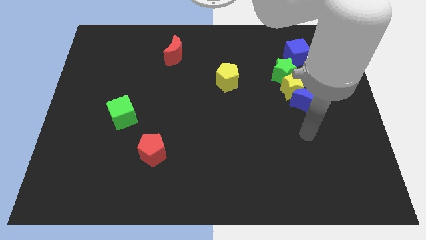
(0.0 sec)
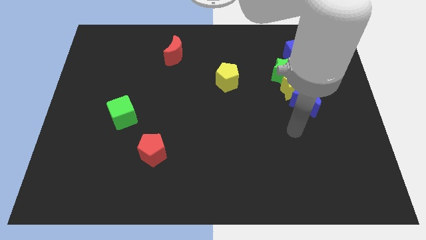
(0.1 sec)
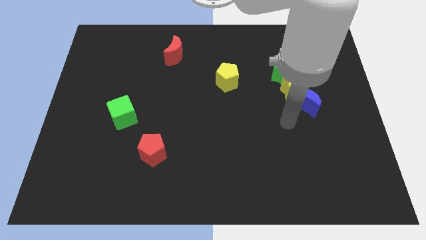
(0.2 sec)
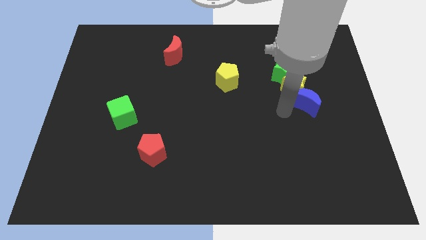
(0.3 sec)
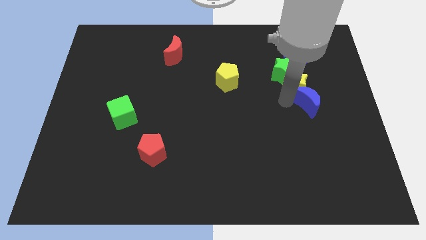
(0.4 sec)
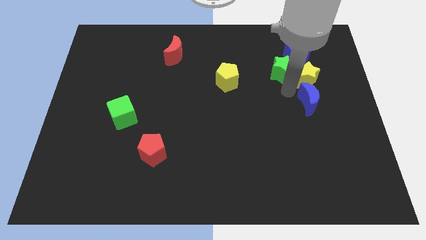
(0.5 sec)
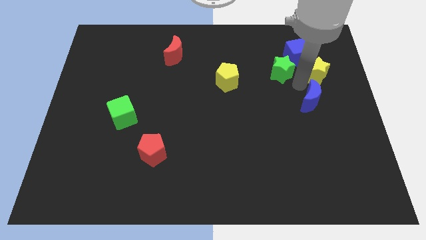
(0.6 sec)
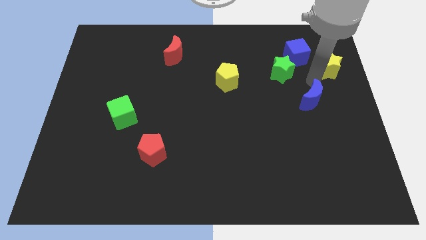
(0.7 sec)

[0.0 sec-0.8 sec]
move the blue moon away from the yellow star

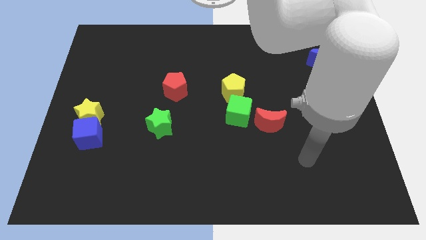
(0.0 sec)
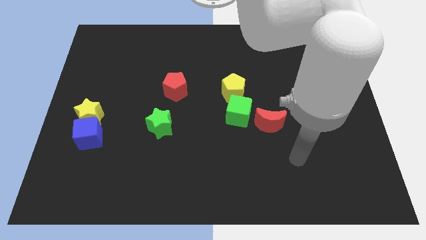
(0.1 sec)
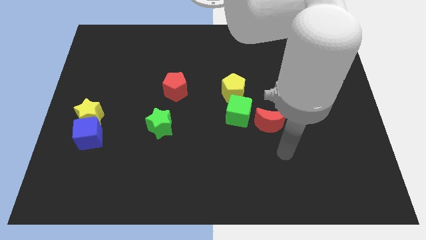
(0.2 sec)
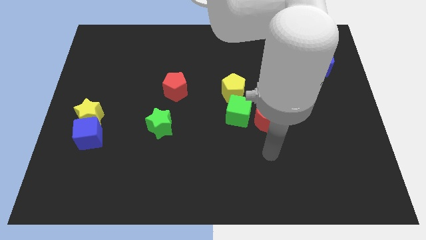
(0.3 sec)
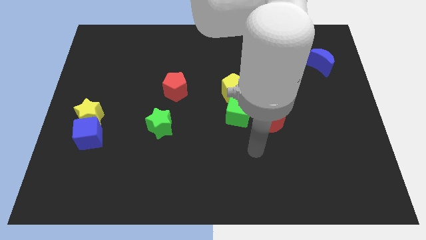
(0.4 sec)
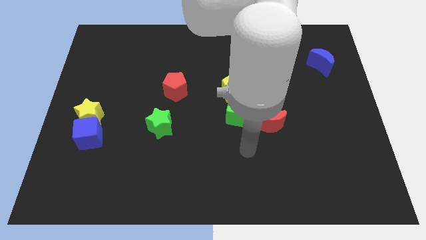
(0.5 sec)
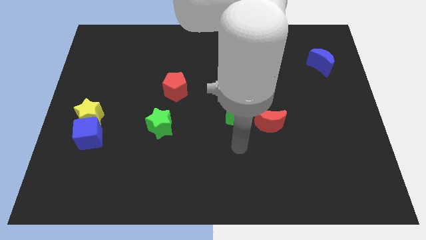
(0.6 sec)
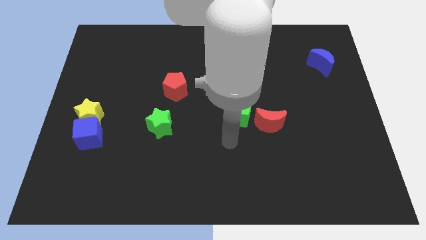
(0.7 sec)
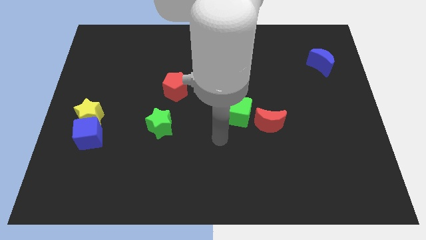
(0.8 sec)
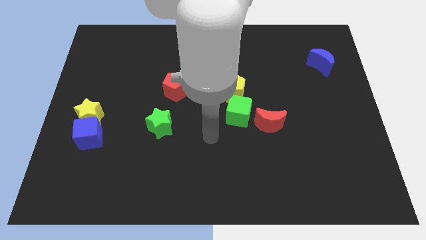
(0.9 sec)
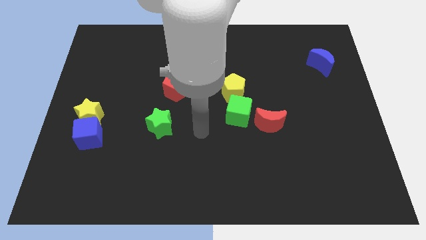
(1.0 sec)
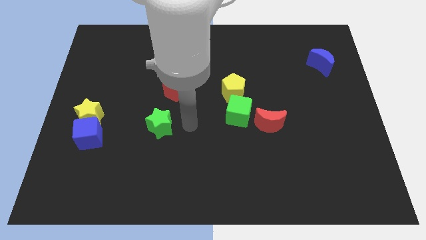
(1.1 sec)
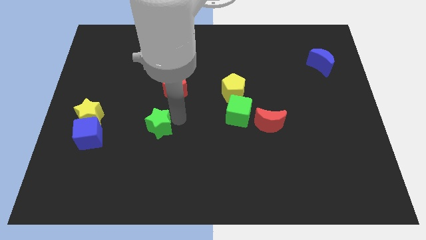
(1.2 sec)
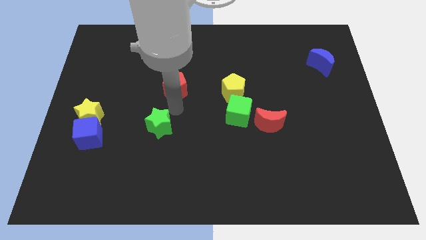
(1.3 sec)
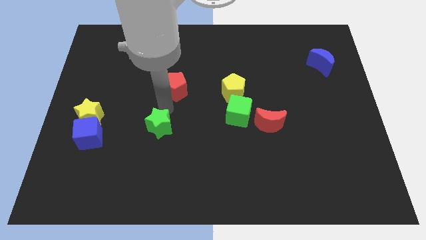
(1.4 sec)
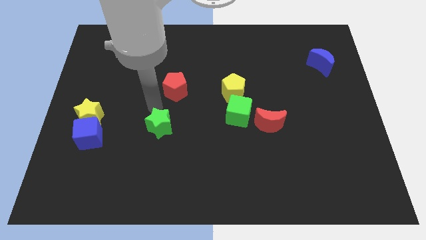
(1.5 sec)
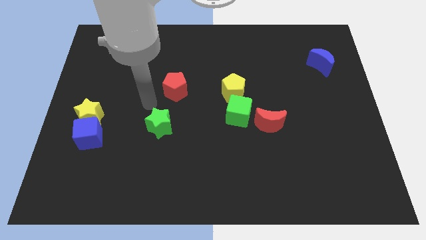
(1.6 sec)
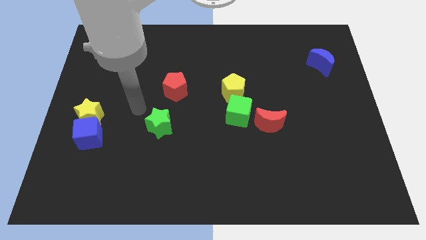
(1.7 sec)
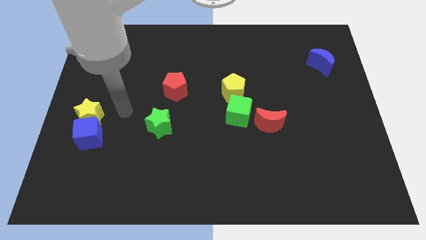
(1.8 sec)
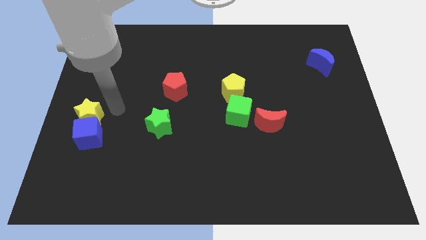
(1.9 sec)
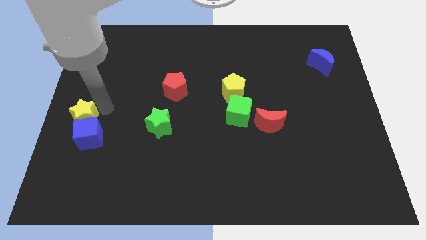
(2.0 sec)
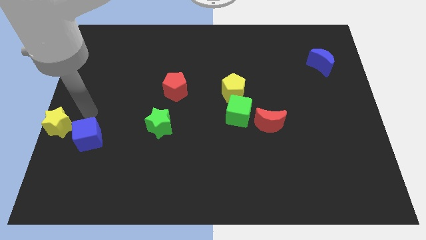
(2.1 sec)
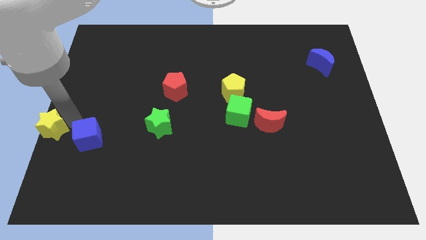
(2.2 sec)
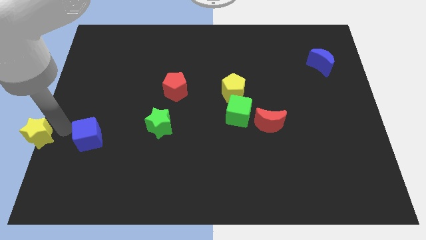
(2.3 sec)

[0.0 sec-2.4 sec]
move the blue cube away from the yellow star

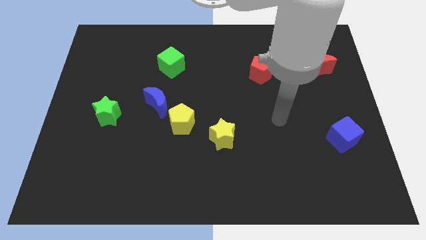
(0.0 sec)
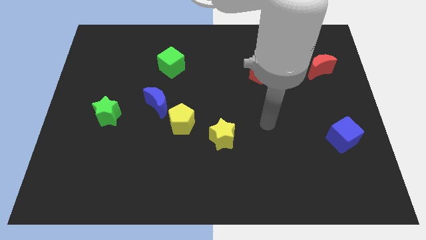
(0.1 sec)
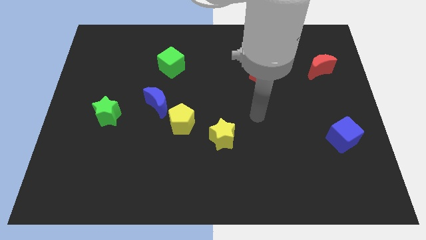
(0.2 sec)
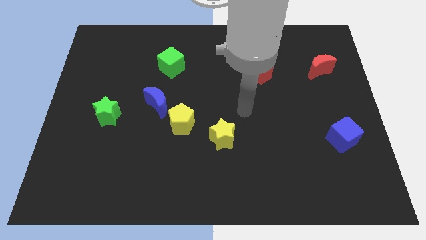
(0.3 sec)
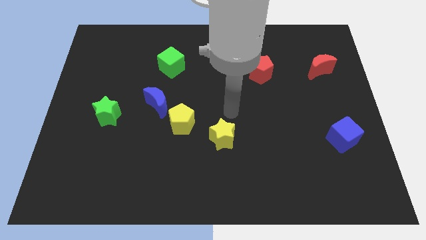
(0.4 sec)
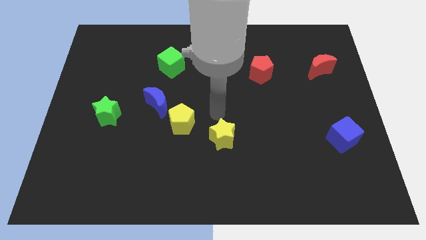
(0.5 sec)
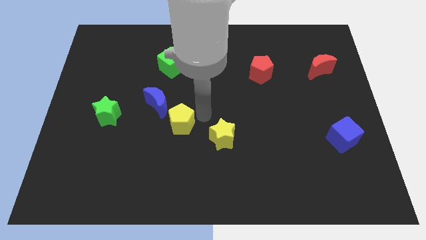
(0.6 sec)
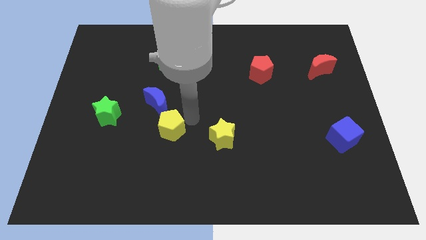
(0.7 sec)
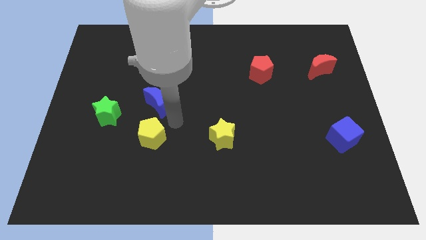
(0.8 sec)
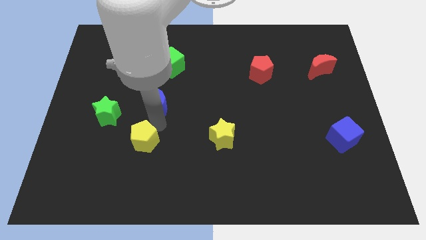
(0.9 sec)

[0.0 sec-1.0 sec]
separate the blue moon from the yellow pentagon

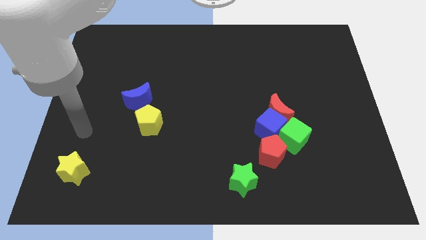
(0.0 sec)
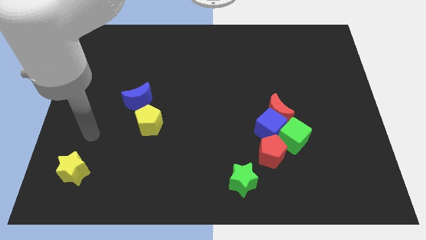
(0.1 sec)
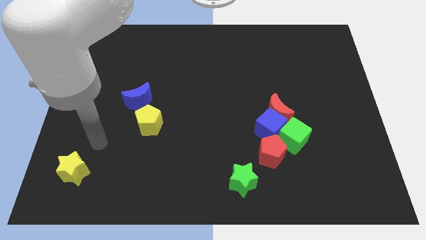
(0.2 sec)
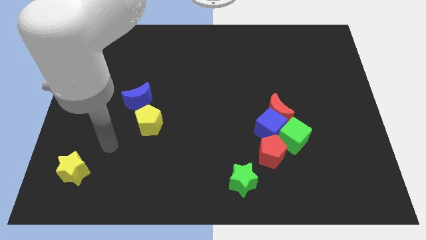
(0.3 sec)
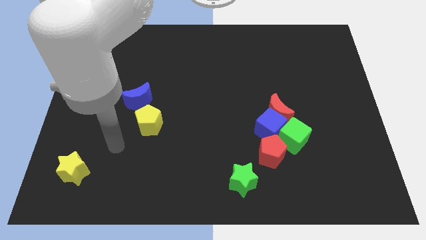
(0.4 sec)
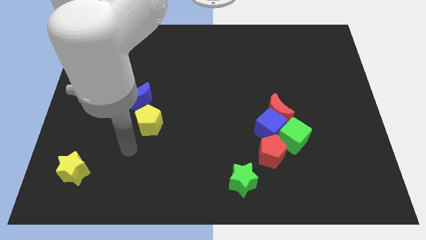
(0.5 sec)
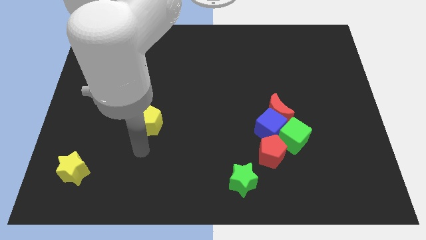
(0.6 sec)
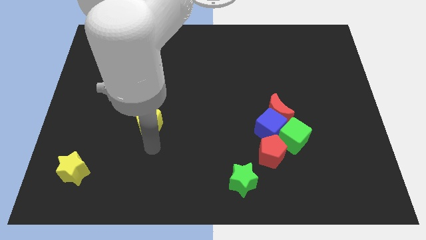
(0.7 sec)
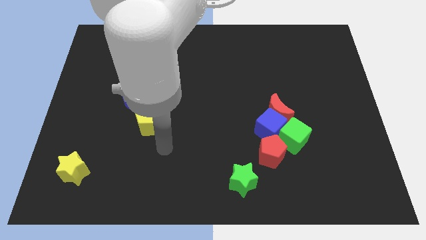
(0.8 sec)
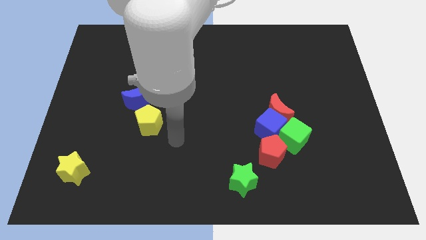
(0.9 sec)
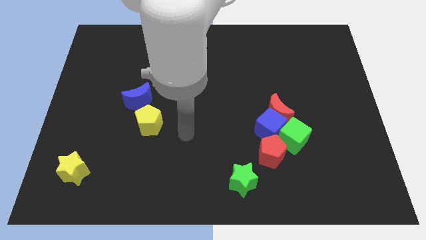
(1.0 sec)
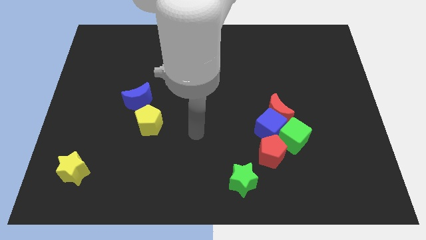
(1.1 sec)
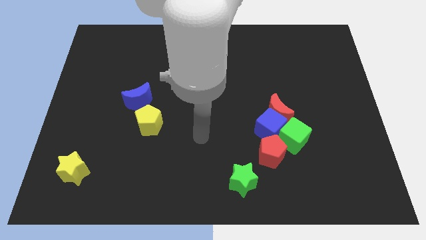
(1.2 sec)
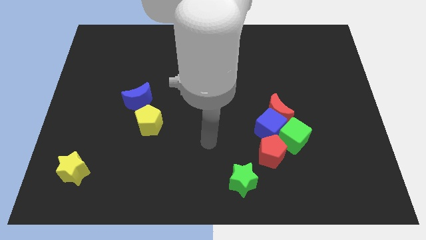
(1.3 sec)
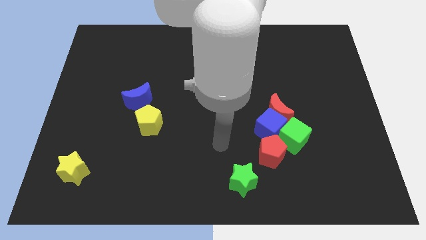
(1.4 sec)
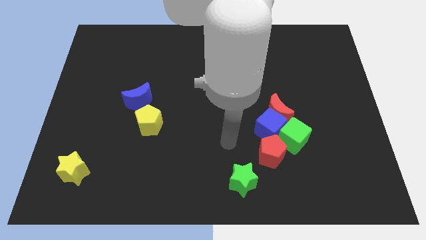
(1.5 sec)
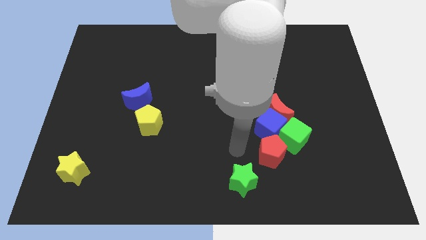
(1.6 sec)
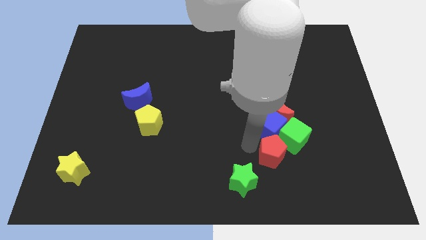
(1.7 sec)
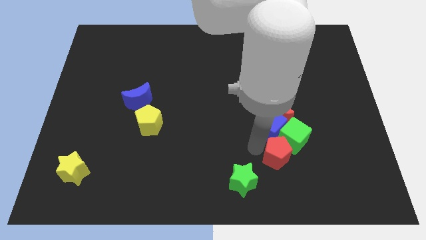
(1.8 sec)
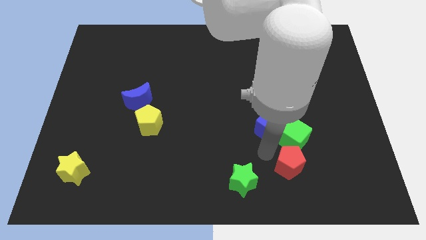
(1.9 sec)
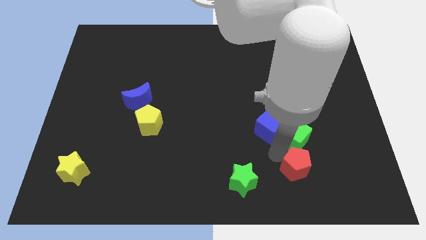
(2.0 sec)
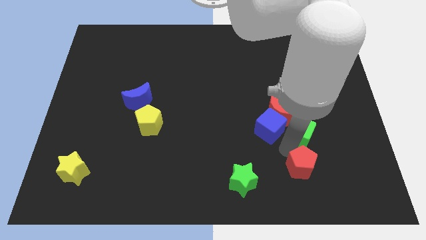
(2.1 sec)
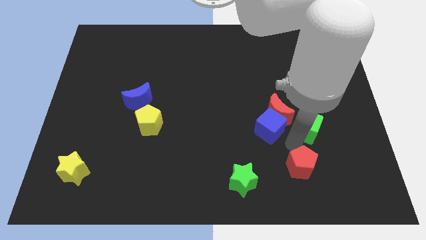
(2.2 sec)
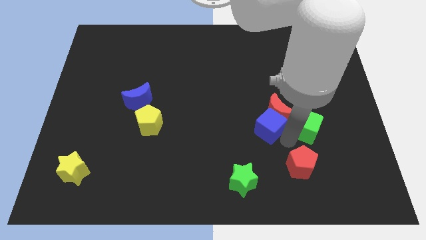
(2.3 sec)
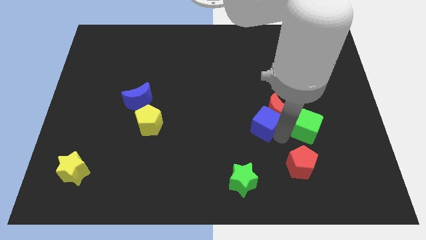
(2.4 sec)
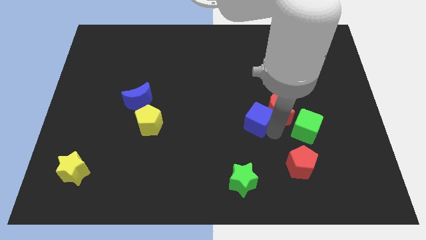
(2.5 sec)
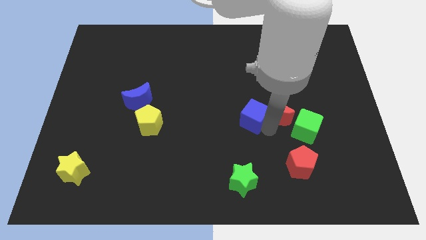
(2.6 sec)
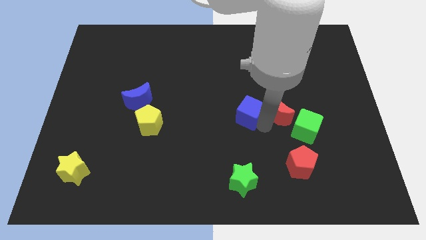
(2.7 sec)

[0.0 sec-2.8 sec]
separate the blue cube from the red moon, green cube, and red pentagon

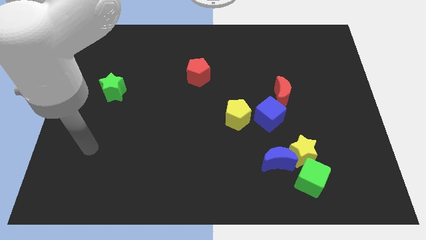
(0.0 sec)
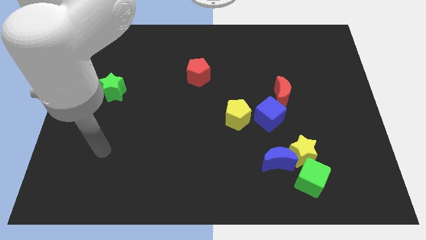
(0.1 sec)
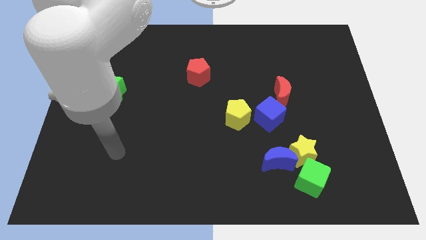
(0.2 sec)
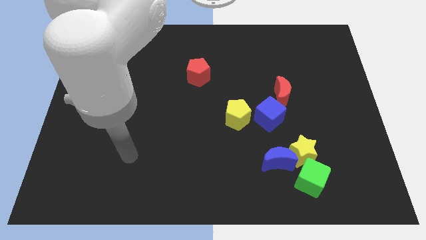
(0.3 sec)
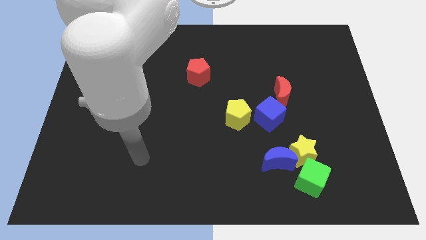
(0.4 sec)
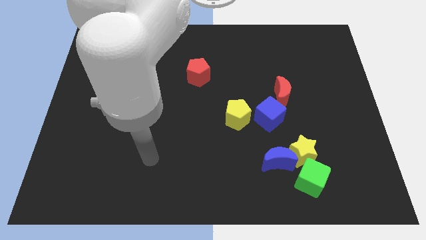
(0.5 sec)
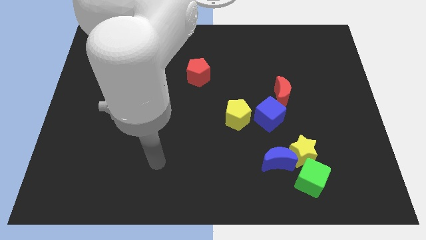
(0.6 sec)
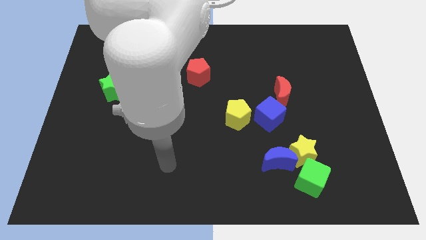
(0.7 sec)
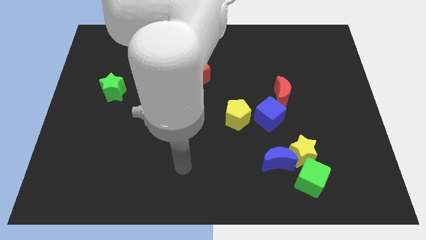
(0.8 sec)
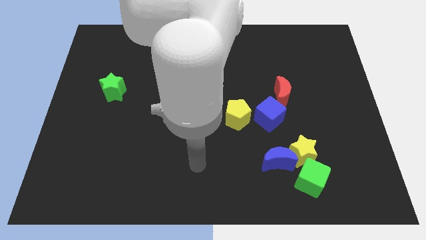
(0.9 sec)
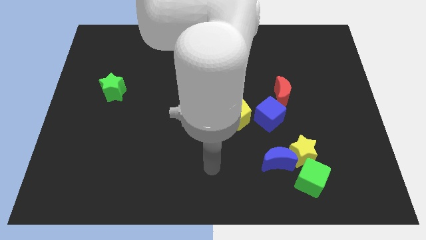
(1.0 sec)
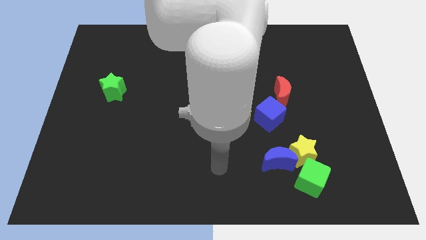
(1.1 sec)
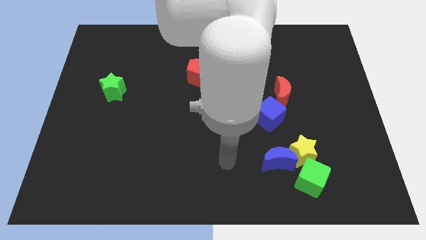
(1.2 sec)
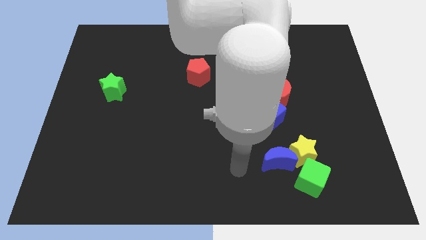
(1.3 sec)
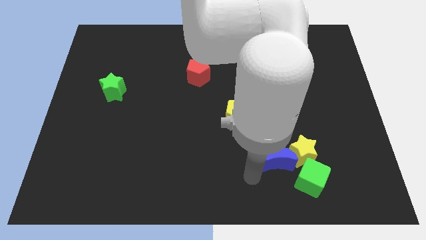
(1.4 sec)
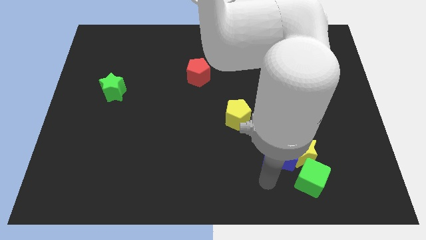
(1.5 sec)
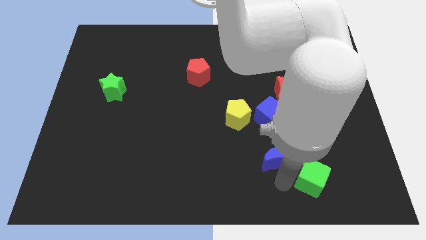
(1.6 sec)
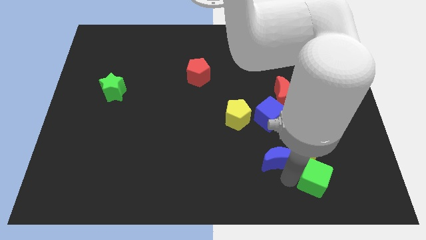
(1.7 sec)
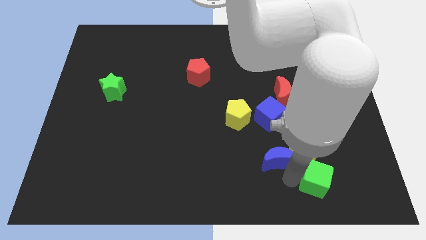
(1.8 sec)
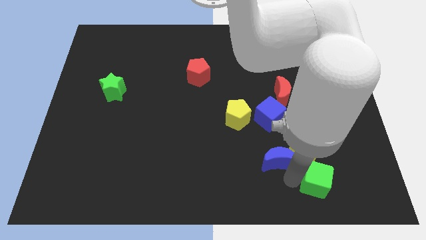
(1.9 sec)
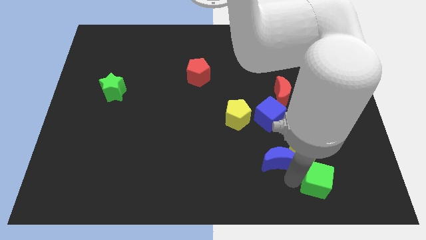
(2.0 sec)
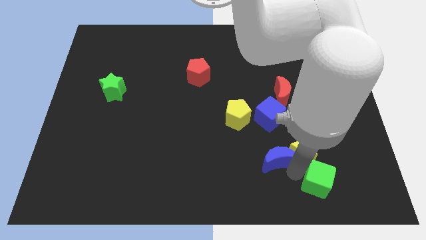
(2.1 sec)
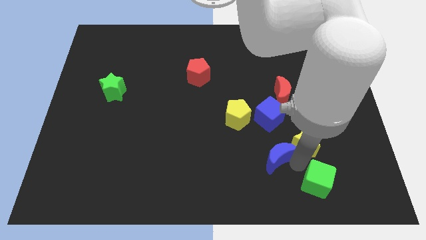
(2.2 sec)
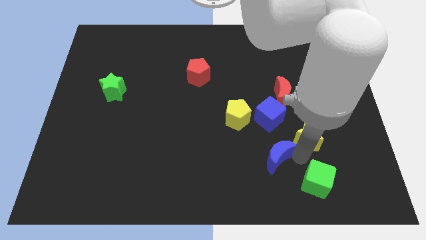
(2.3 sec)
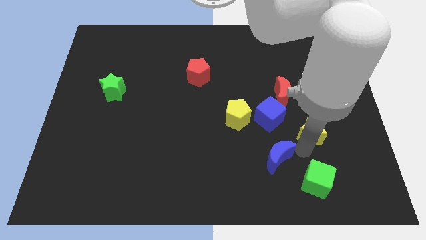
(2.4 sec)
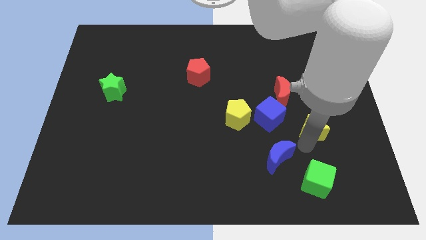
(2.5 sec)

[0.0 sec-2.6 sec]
separate the yellow star from the blue moon and green cube
